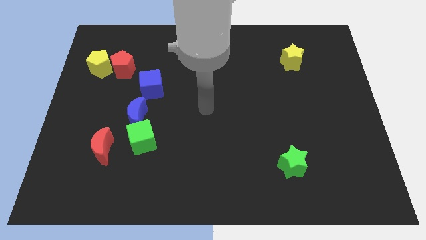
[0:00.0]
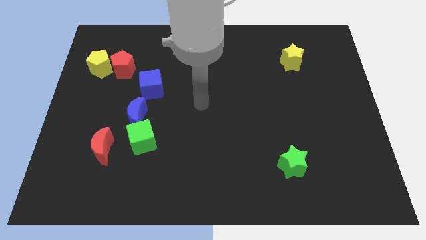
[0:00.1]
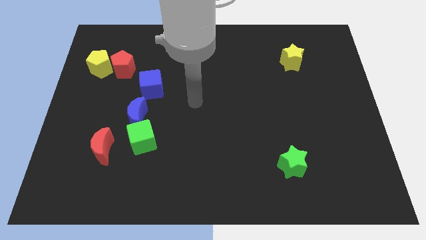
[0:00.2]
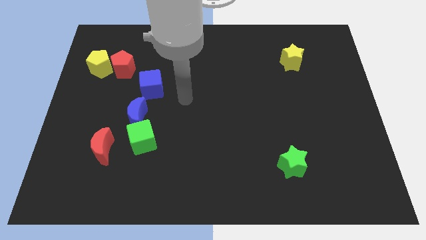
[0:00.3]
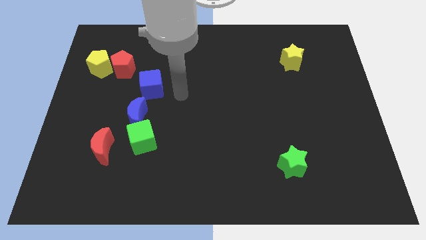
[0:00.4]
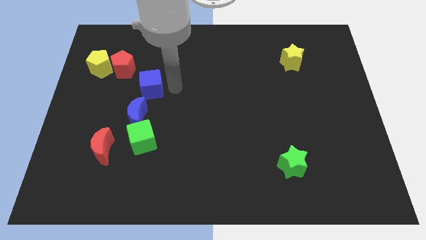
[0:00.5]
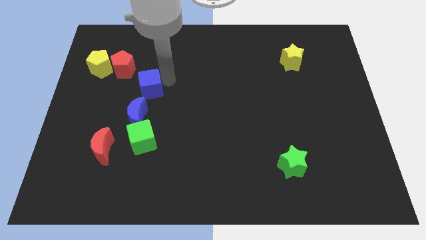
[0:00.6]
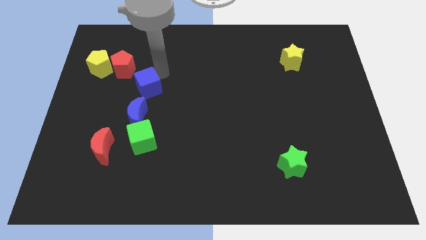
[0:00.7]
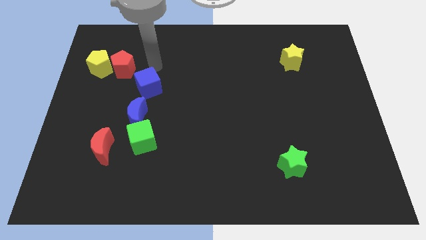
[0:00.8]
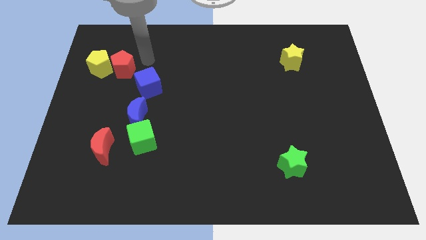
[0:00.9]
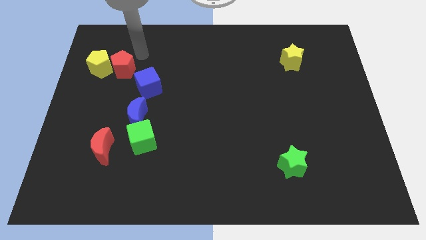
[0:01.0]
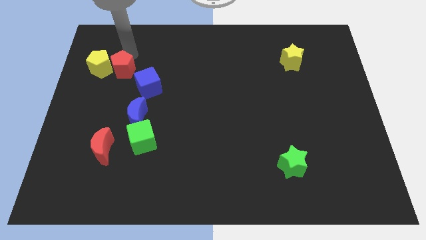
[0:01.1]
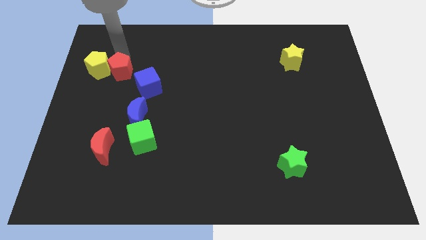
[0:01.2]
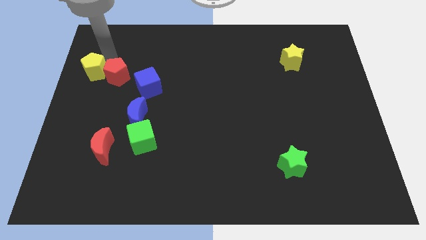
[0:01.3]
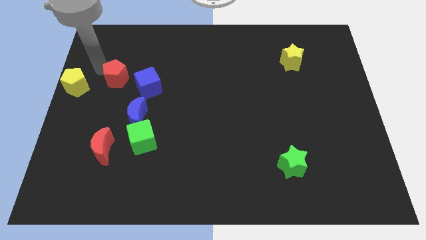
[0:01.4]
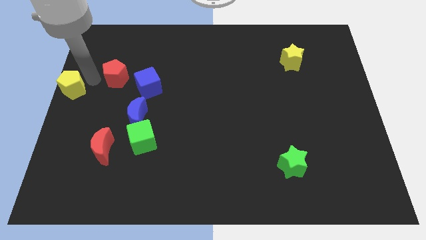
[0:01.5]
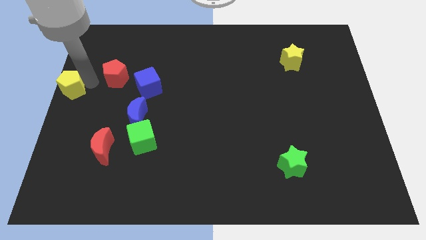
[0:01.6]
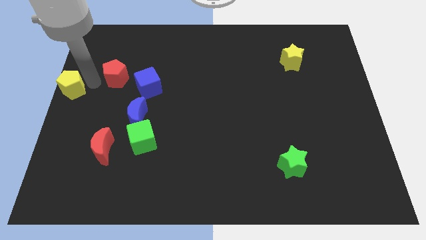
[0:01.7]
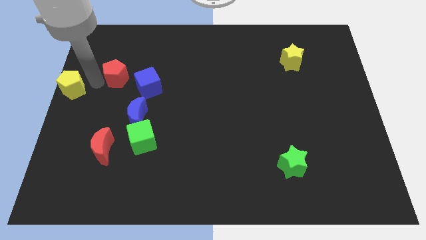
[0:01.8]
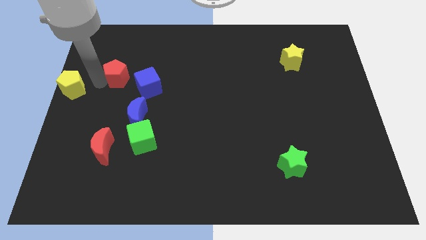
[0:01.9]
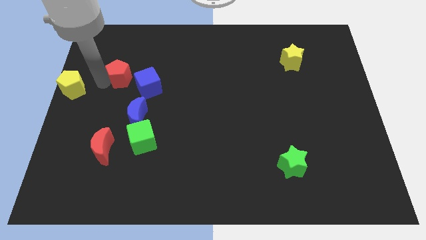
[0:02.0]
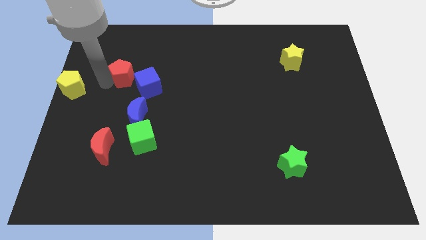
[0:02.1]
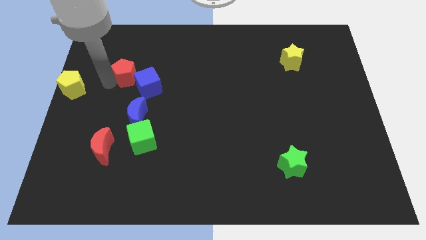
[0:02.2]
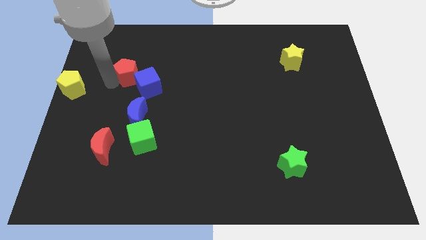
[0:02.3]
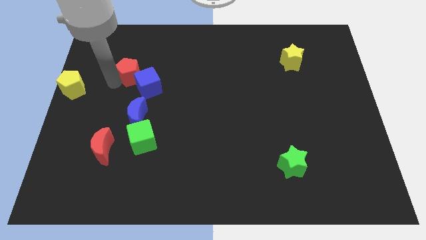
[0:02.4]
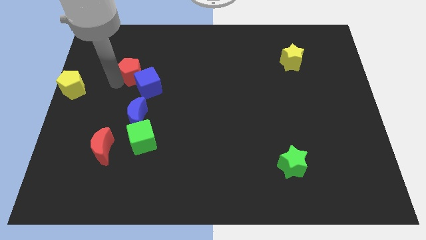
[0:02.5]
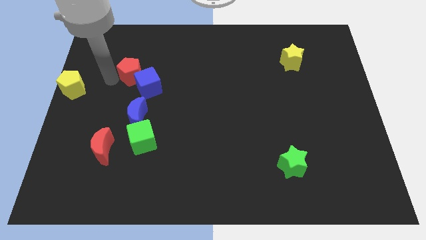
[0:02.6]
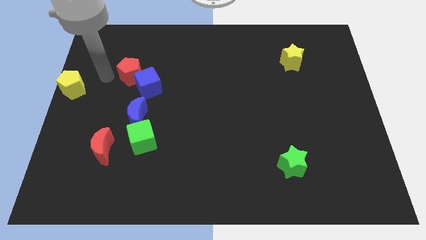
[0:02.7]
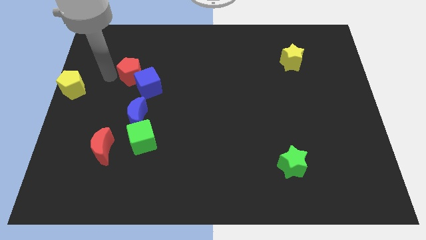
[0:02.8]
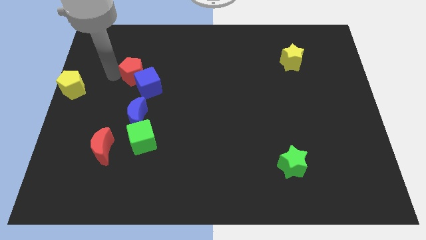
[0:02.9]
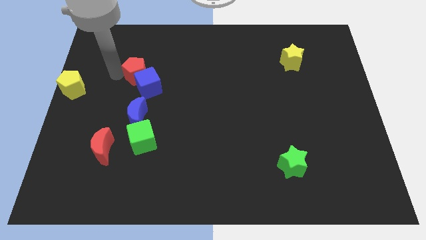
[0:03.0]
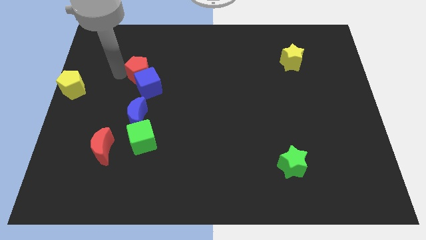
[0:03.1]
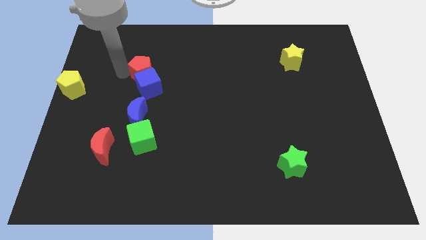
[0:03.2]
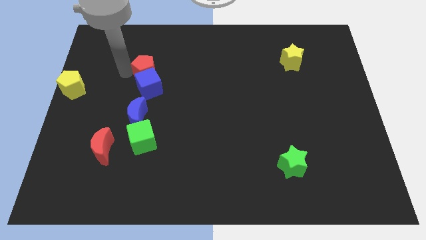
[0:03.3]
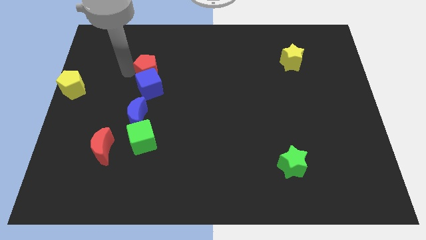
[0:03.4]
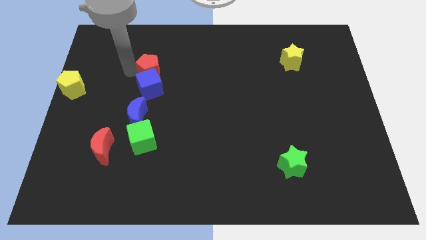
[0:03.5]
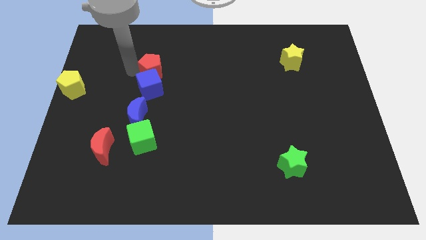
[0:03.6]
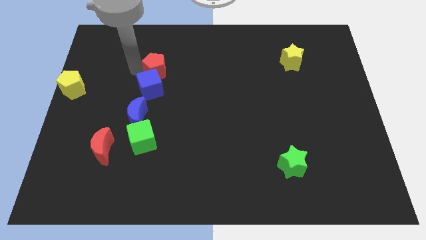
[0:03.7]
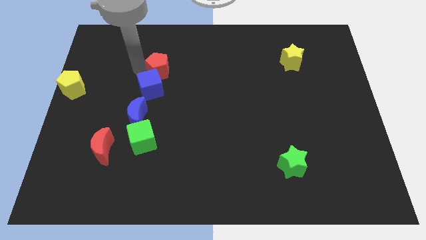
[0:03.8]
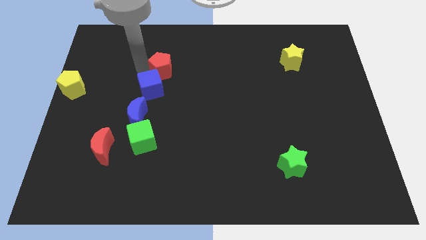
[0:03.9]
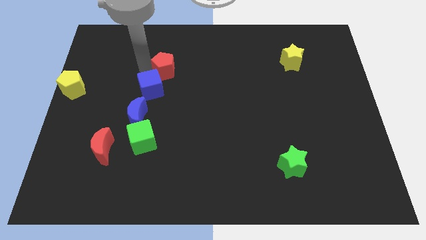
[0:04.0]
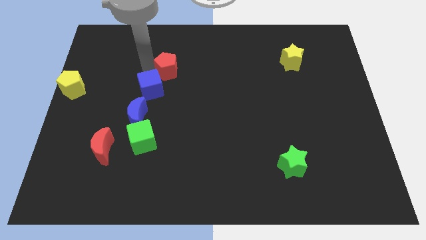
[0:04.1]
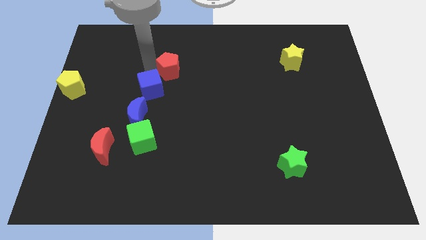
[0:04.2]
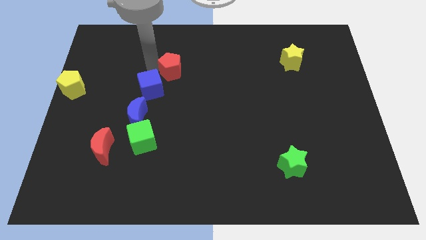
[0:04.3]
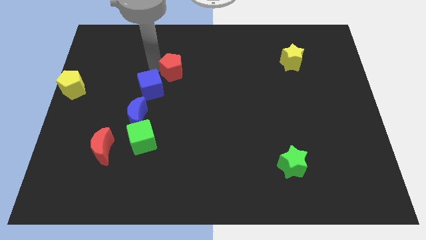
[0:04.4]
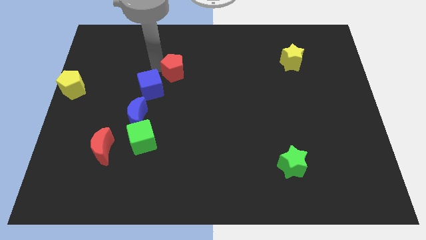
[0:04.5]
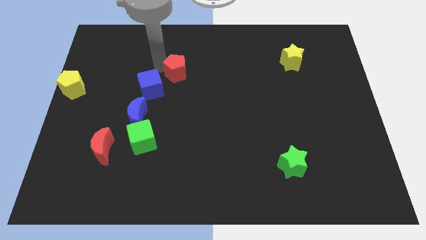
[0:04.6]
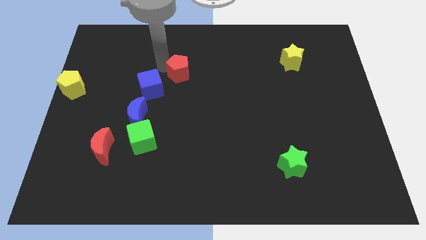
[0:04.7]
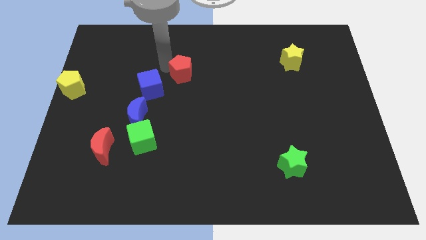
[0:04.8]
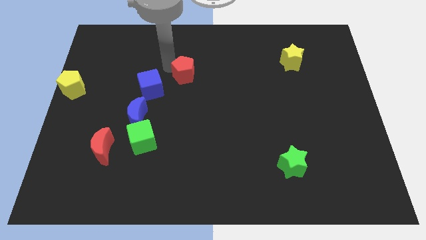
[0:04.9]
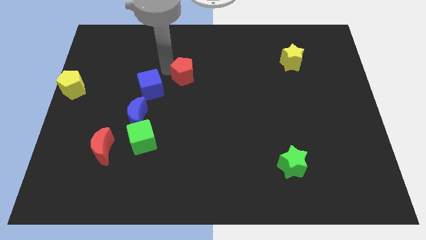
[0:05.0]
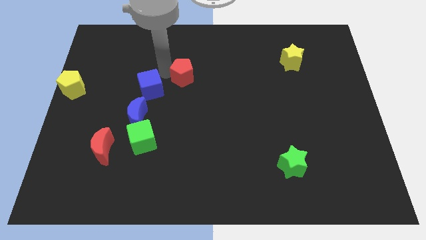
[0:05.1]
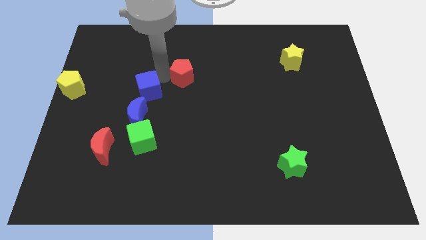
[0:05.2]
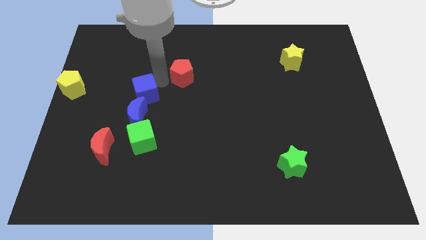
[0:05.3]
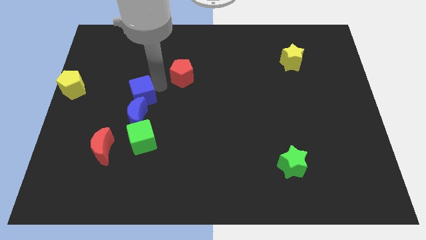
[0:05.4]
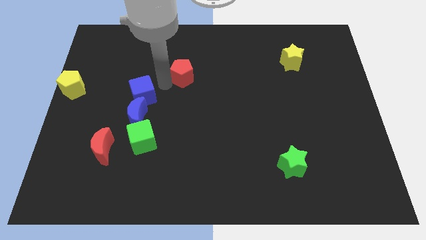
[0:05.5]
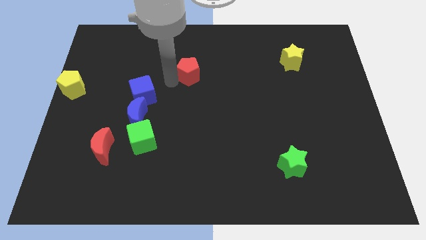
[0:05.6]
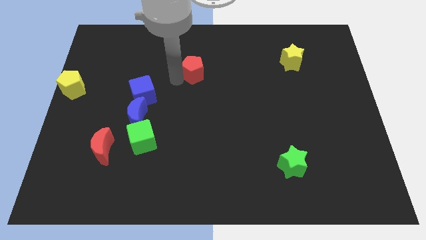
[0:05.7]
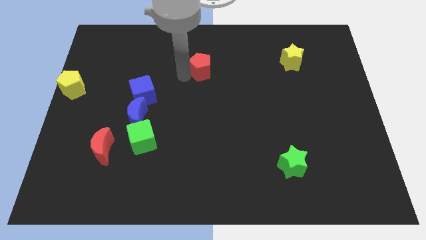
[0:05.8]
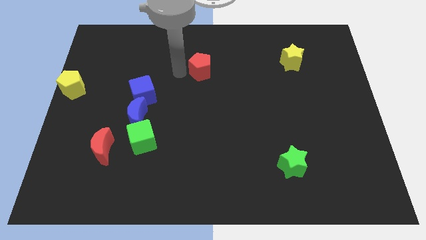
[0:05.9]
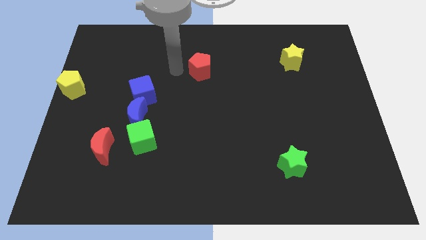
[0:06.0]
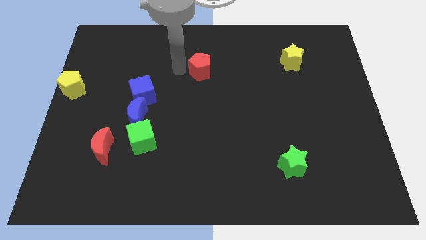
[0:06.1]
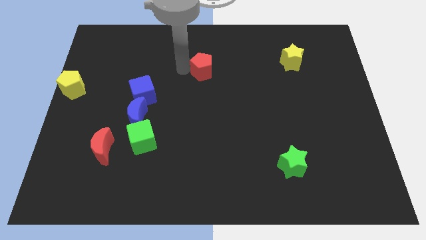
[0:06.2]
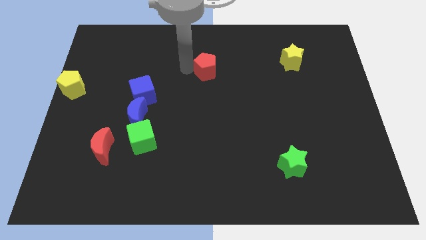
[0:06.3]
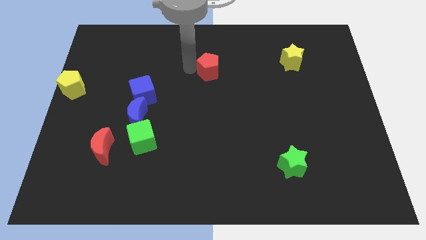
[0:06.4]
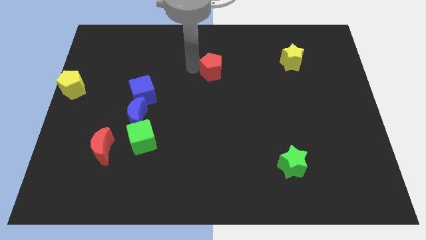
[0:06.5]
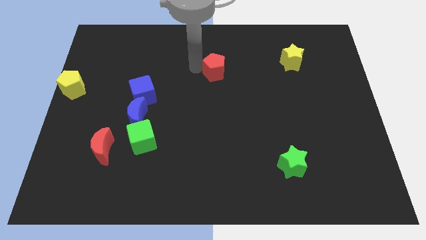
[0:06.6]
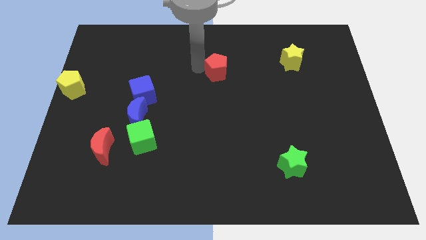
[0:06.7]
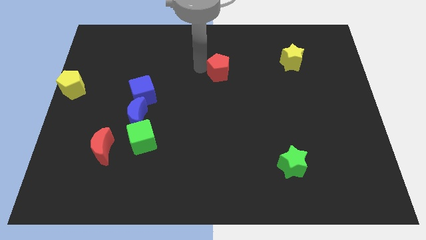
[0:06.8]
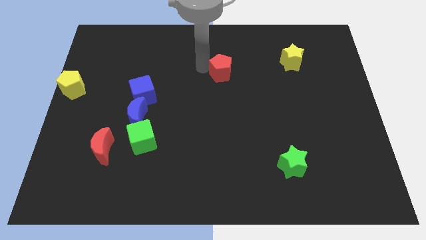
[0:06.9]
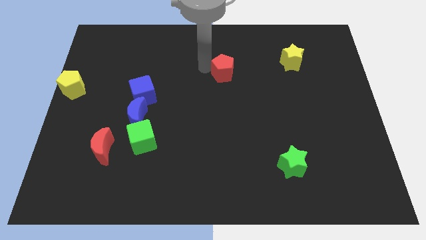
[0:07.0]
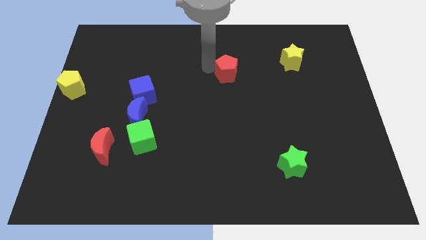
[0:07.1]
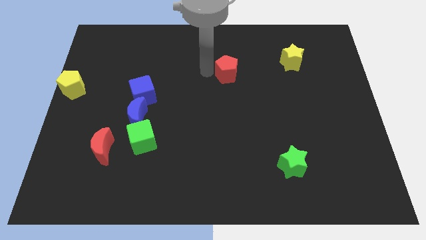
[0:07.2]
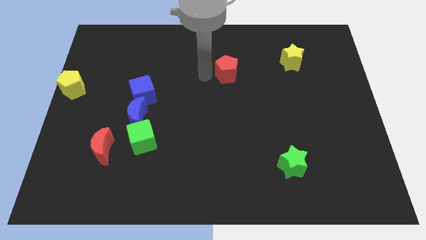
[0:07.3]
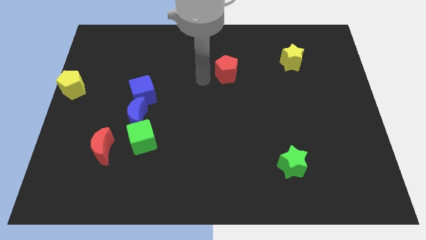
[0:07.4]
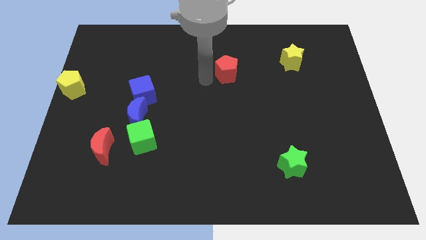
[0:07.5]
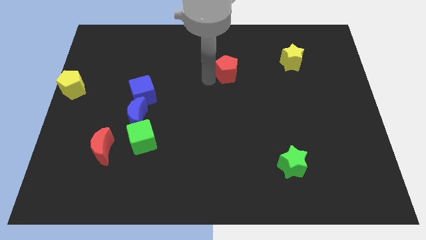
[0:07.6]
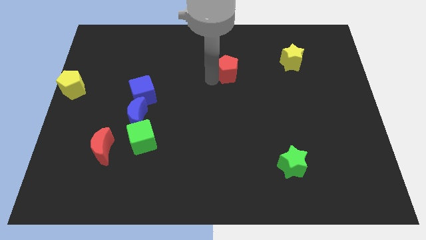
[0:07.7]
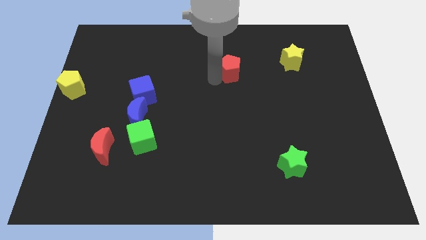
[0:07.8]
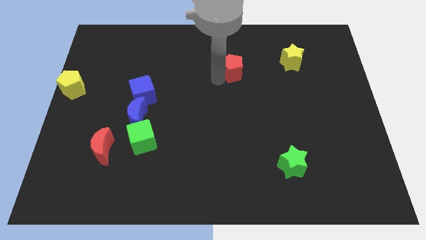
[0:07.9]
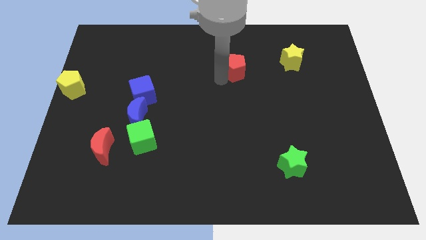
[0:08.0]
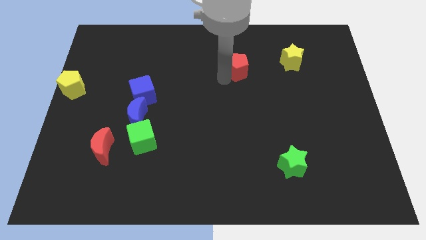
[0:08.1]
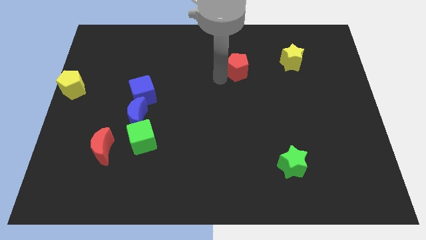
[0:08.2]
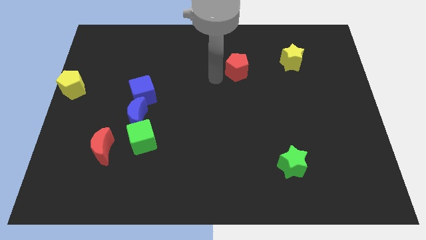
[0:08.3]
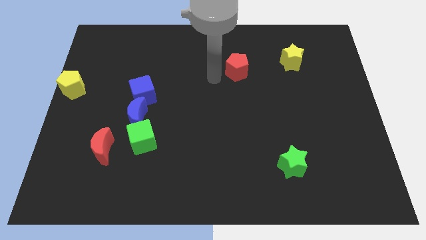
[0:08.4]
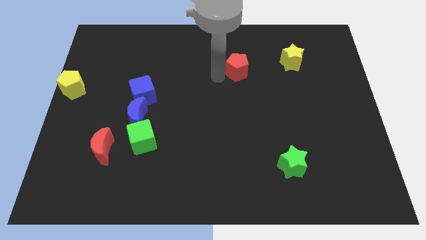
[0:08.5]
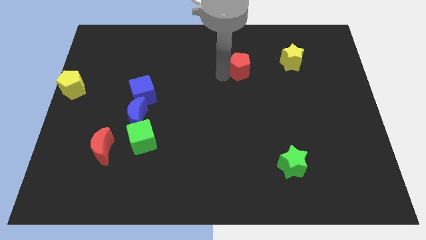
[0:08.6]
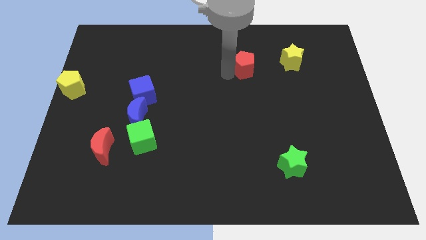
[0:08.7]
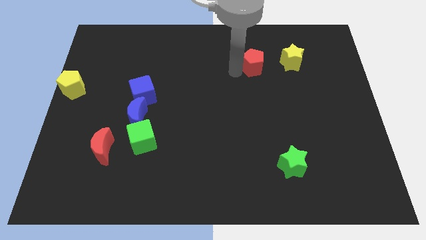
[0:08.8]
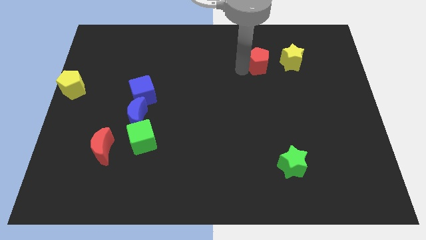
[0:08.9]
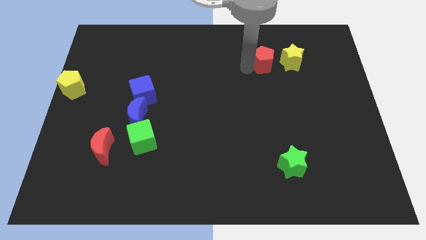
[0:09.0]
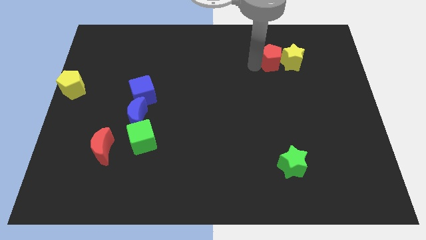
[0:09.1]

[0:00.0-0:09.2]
push the red pentagon close to the yellow star
